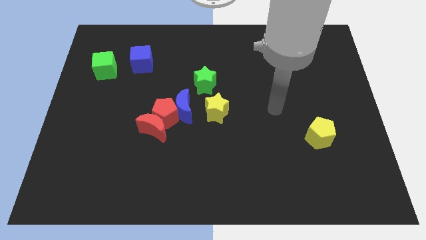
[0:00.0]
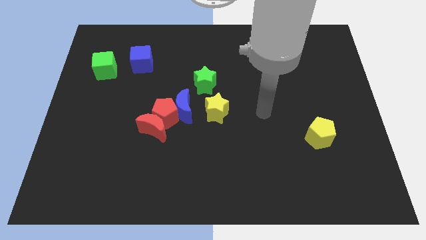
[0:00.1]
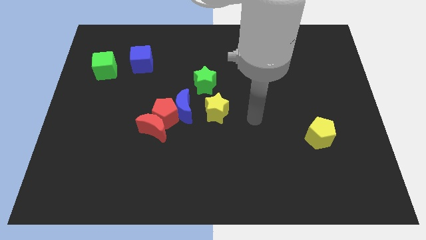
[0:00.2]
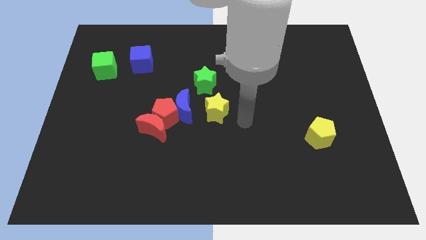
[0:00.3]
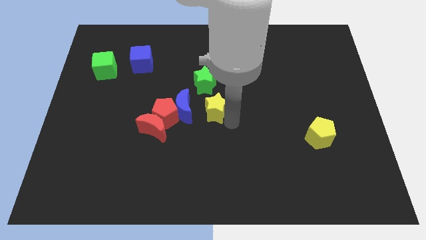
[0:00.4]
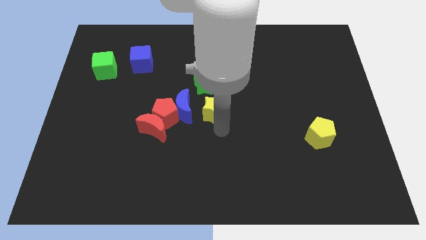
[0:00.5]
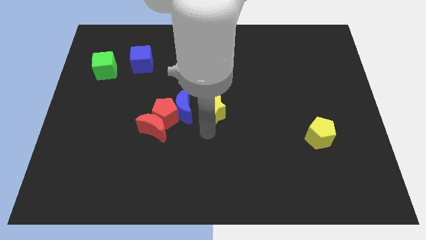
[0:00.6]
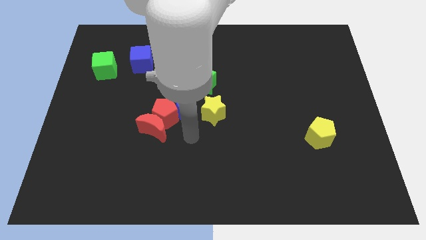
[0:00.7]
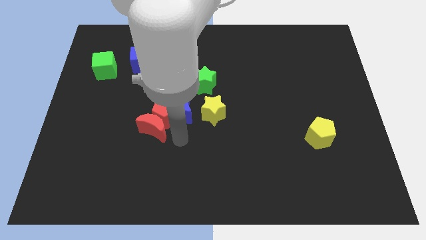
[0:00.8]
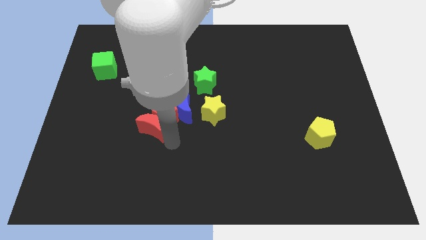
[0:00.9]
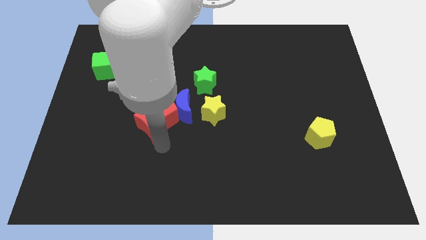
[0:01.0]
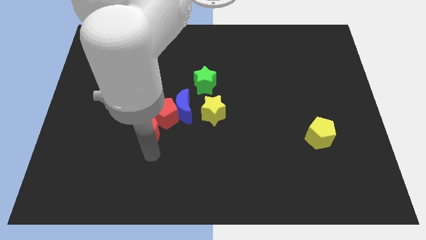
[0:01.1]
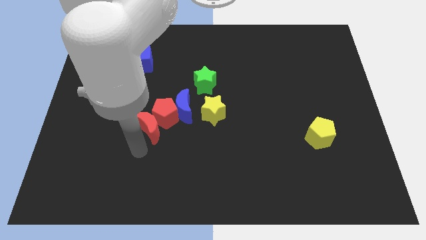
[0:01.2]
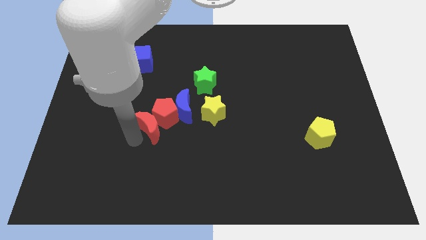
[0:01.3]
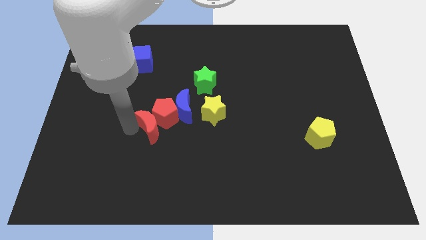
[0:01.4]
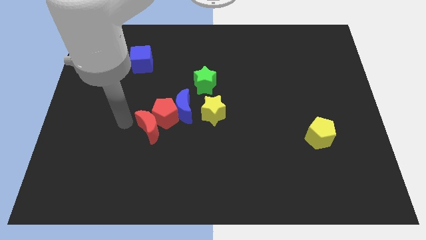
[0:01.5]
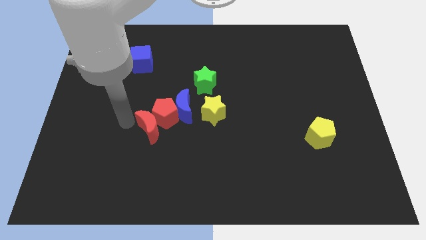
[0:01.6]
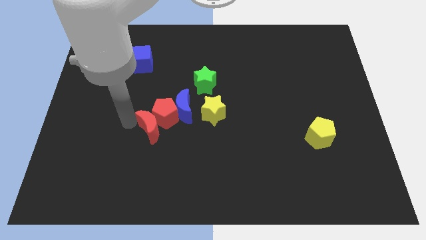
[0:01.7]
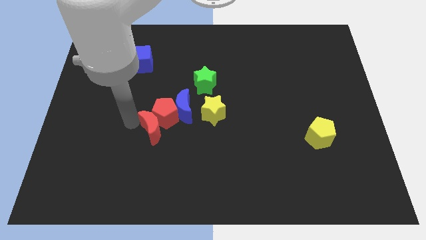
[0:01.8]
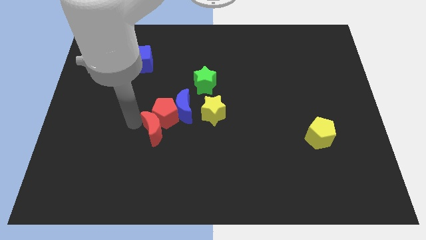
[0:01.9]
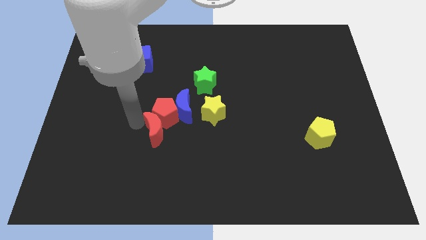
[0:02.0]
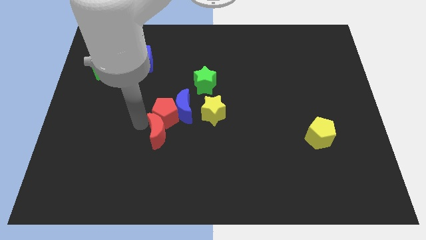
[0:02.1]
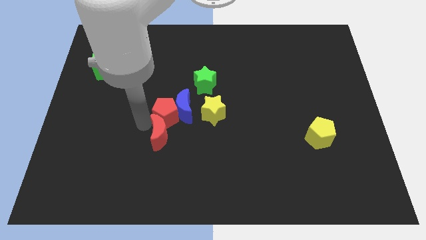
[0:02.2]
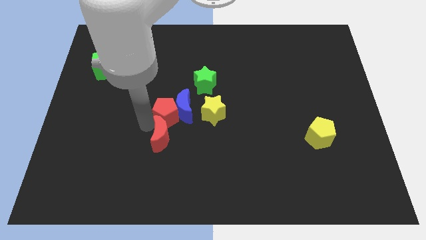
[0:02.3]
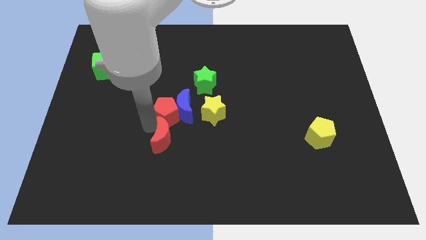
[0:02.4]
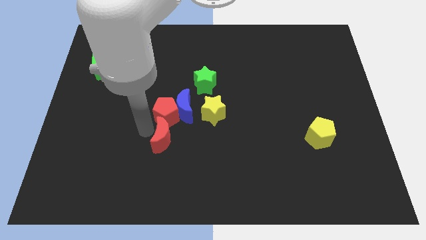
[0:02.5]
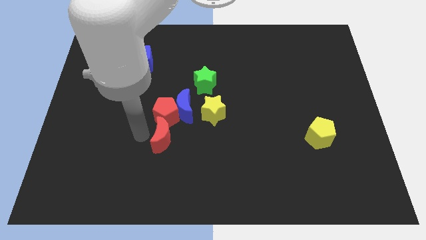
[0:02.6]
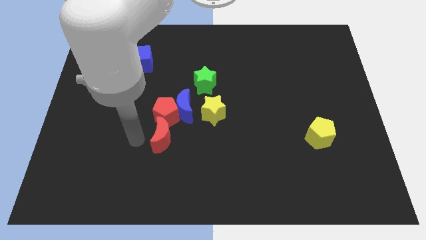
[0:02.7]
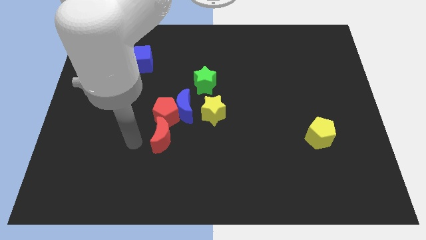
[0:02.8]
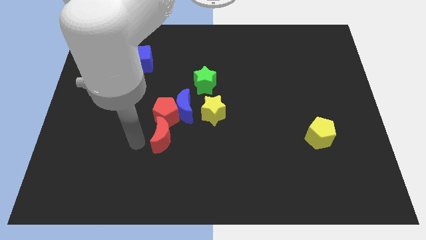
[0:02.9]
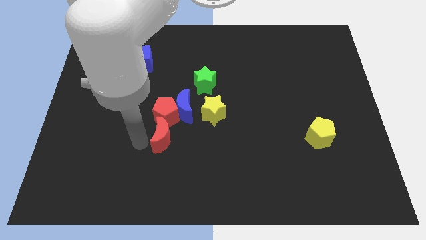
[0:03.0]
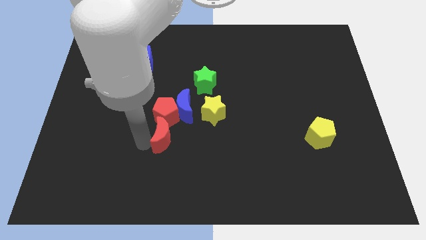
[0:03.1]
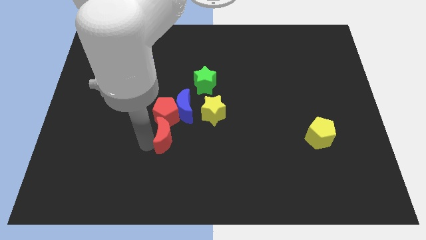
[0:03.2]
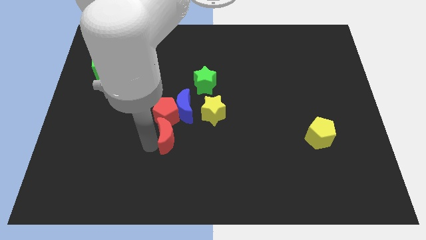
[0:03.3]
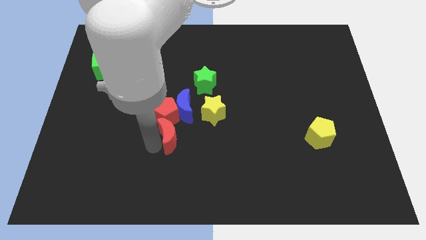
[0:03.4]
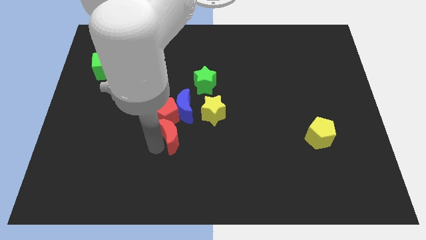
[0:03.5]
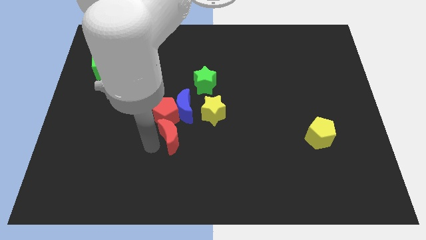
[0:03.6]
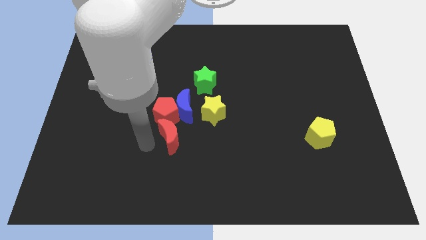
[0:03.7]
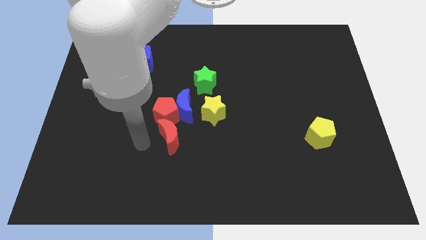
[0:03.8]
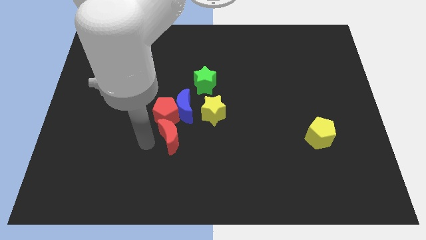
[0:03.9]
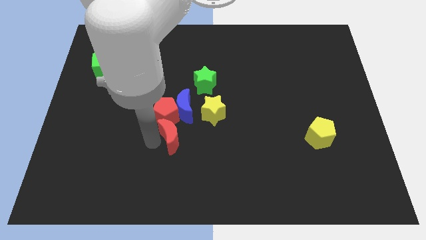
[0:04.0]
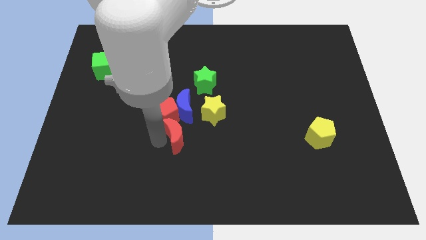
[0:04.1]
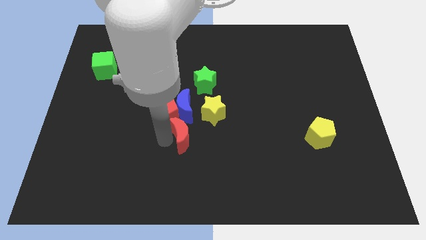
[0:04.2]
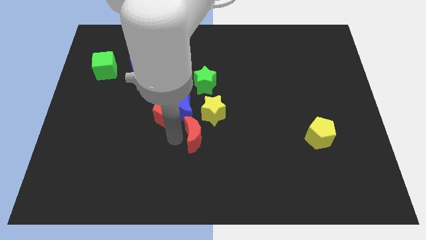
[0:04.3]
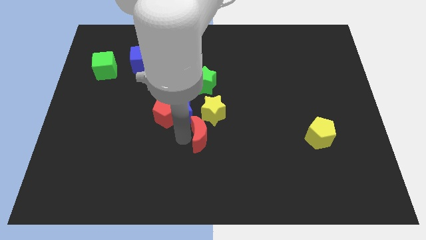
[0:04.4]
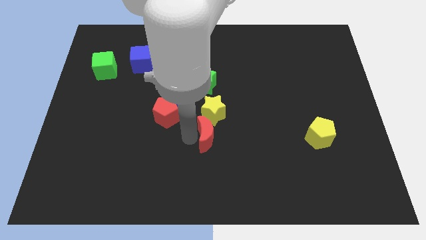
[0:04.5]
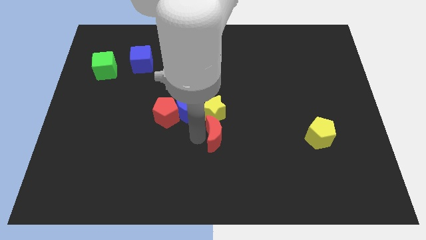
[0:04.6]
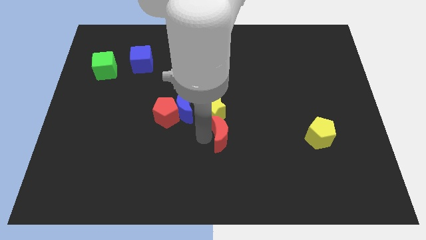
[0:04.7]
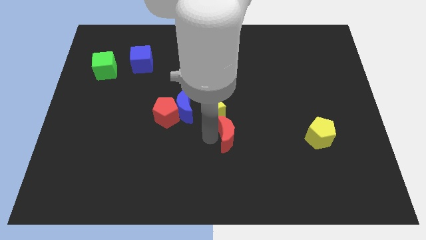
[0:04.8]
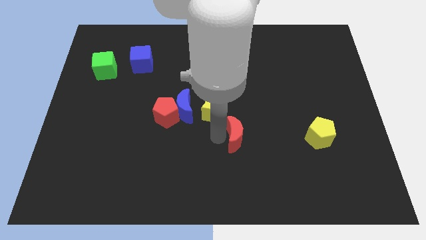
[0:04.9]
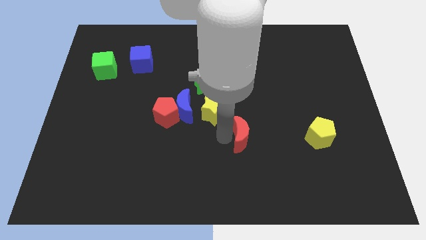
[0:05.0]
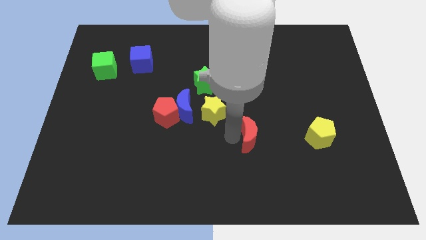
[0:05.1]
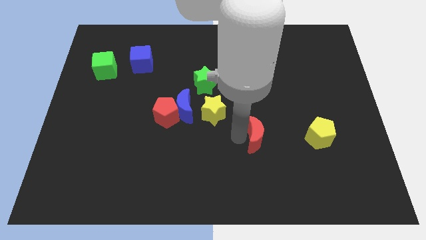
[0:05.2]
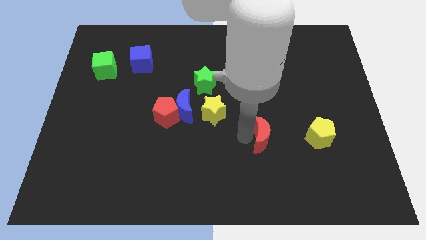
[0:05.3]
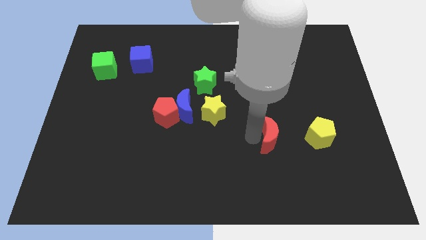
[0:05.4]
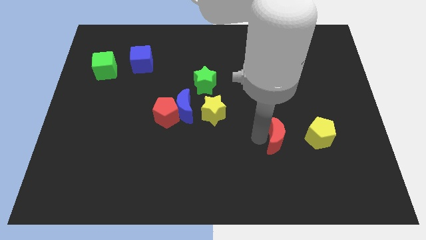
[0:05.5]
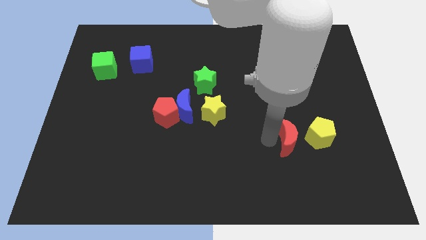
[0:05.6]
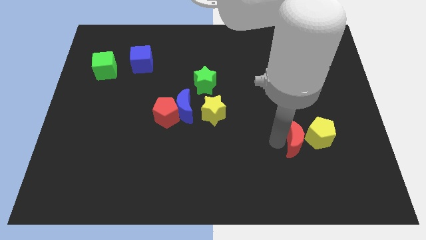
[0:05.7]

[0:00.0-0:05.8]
push the red moon close to the yellow pentagon

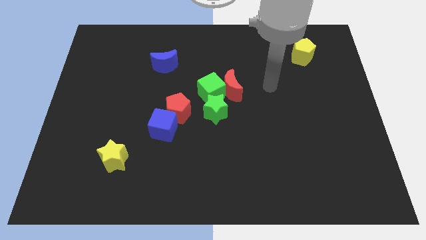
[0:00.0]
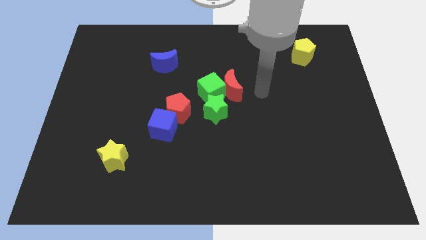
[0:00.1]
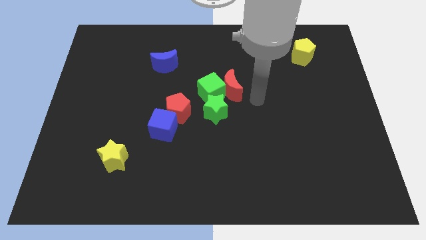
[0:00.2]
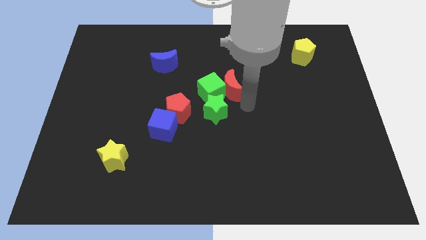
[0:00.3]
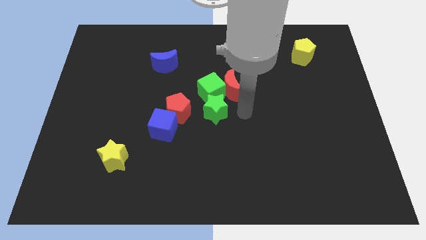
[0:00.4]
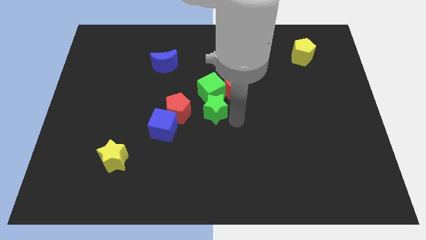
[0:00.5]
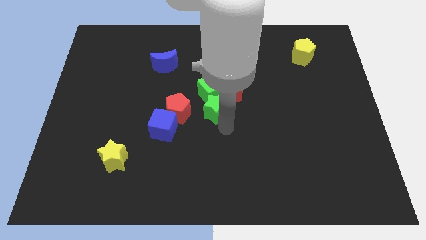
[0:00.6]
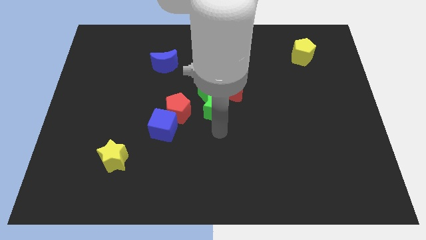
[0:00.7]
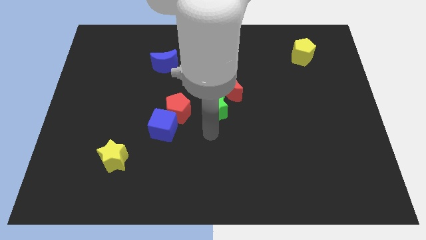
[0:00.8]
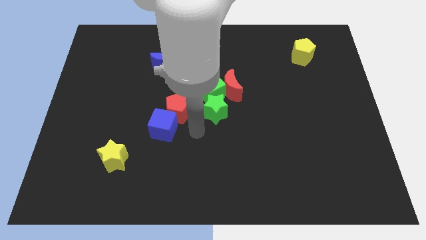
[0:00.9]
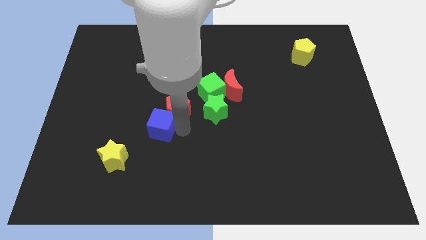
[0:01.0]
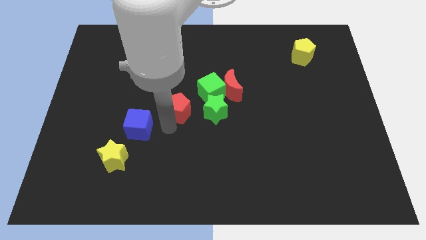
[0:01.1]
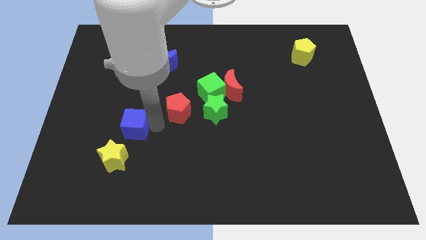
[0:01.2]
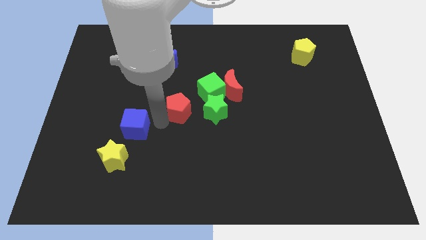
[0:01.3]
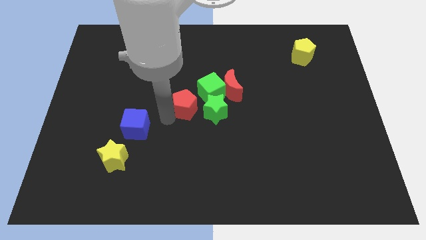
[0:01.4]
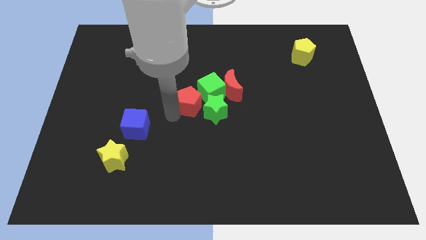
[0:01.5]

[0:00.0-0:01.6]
move the red pentagon close to the green cube
